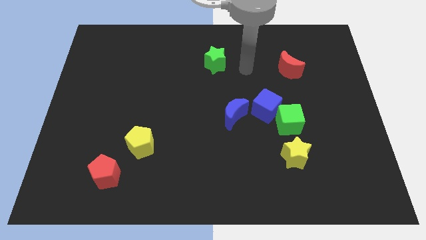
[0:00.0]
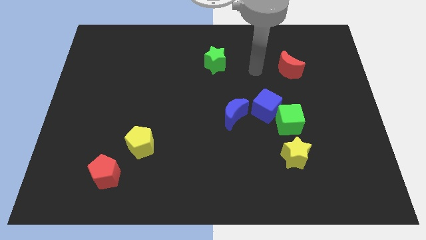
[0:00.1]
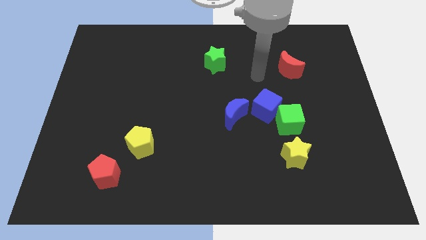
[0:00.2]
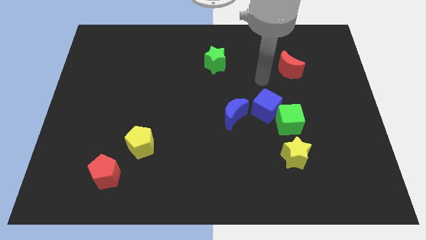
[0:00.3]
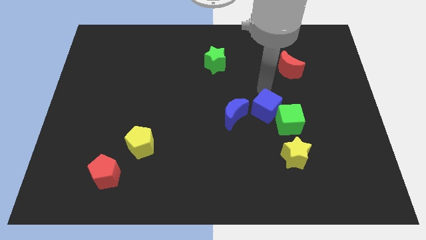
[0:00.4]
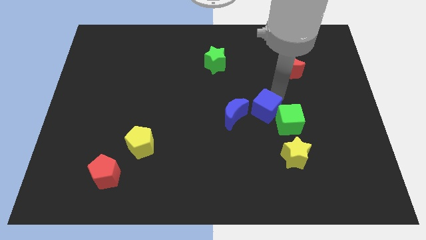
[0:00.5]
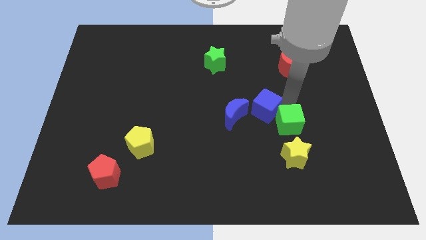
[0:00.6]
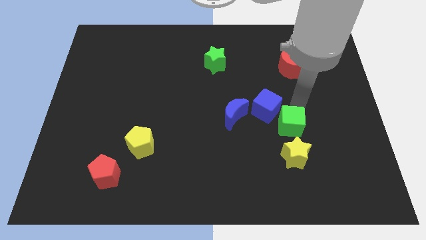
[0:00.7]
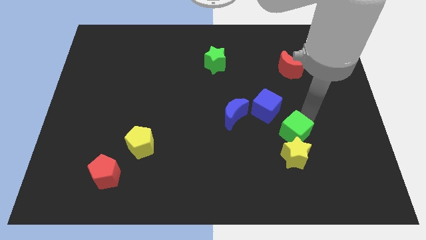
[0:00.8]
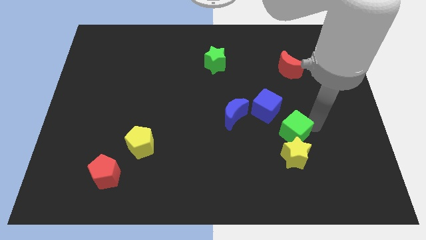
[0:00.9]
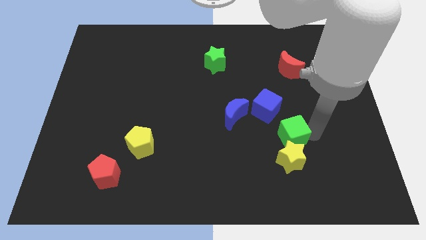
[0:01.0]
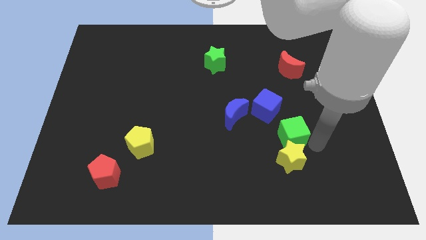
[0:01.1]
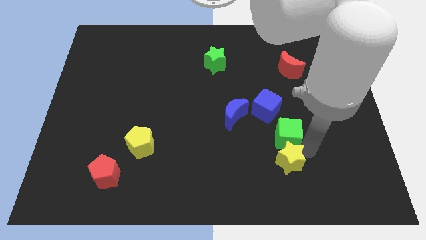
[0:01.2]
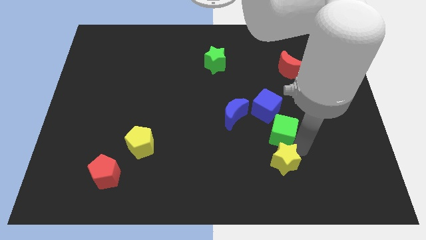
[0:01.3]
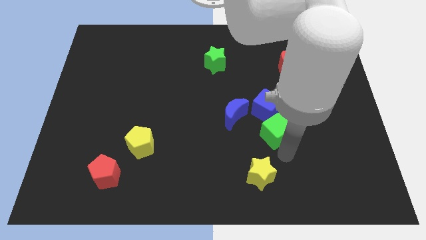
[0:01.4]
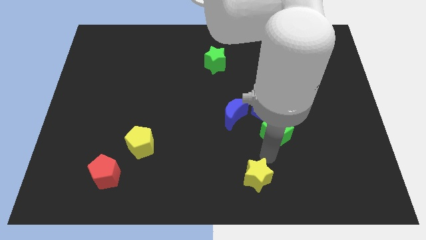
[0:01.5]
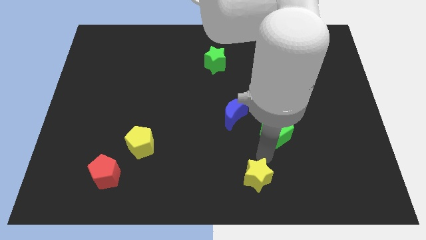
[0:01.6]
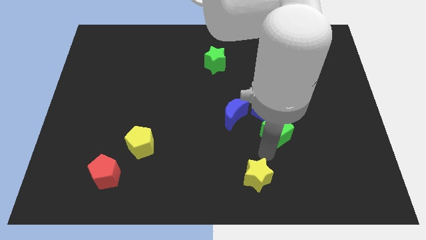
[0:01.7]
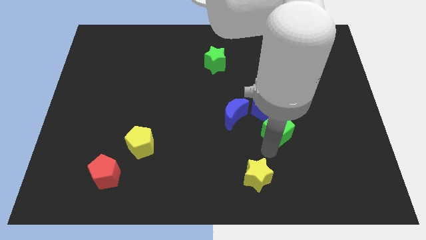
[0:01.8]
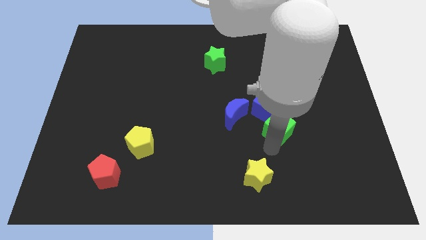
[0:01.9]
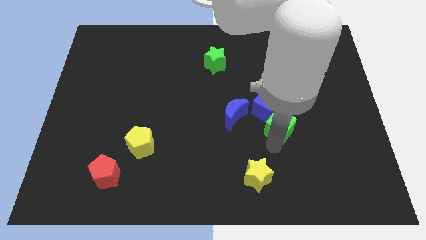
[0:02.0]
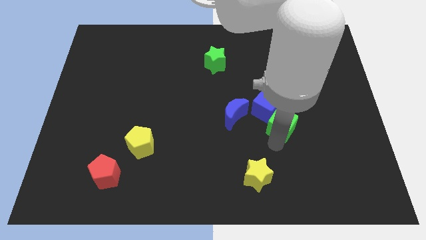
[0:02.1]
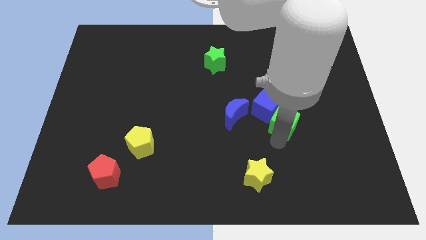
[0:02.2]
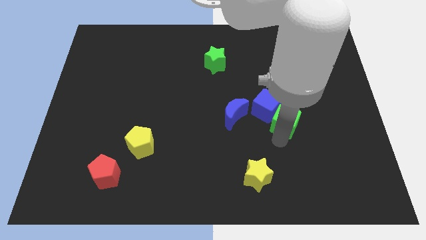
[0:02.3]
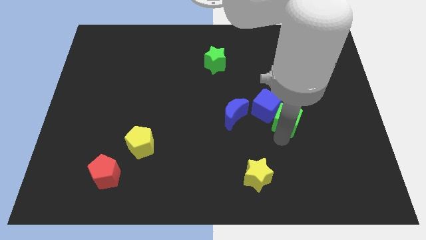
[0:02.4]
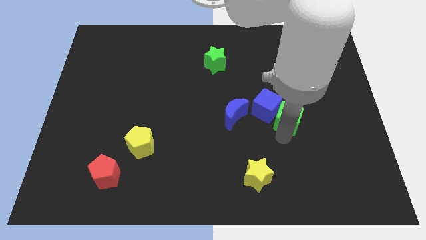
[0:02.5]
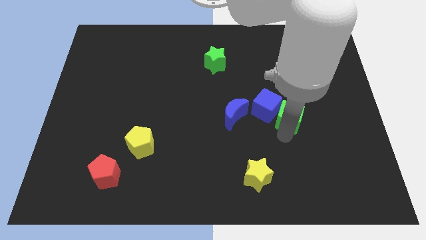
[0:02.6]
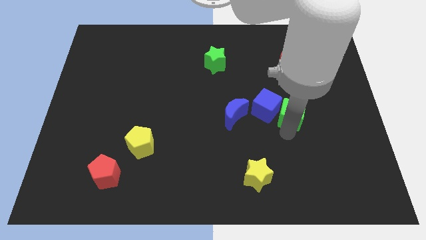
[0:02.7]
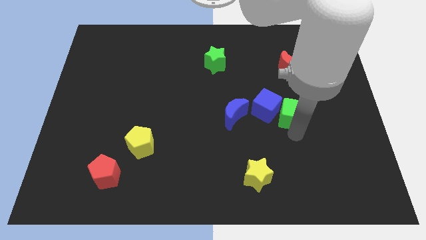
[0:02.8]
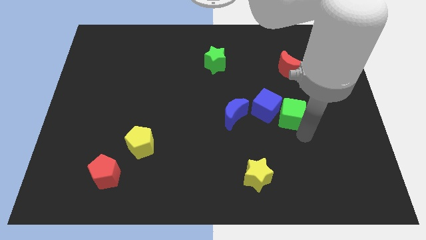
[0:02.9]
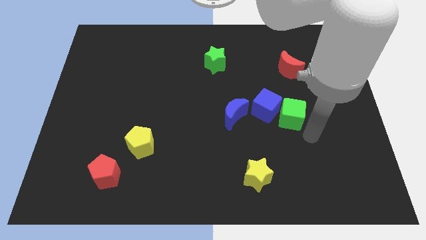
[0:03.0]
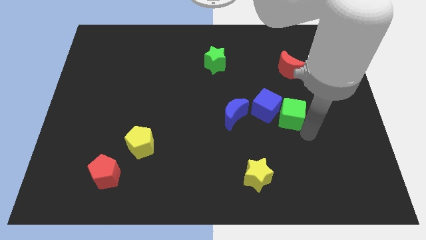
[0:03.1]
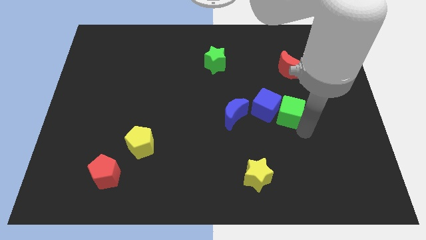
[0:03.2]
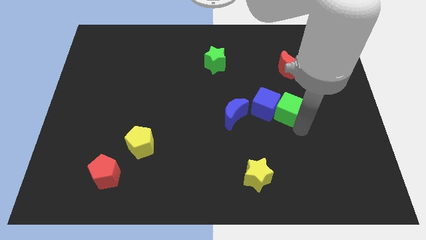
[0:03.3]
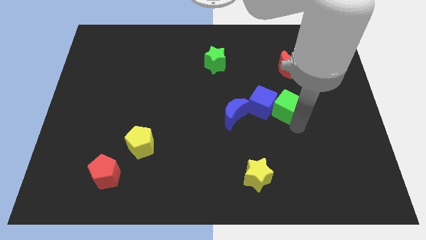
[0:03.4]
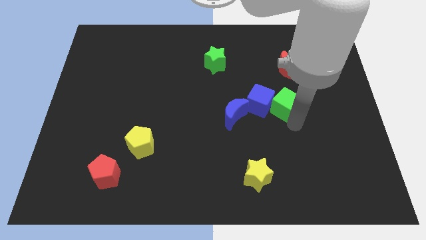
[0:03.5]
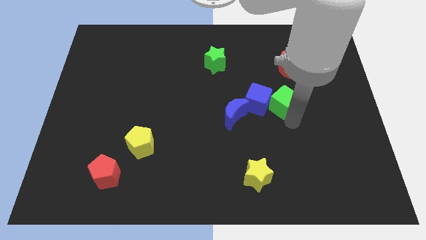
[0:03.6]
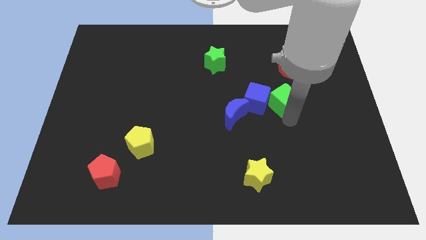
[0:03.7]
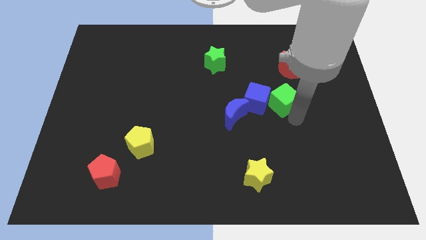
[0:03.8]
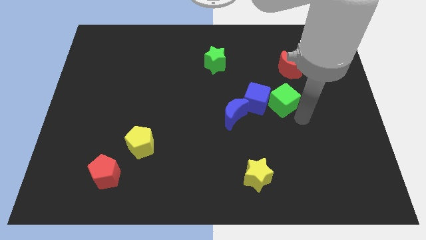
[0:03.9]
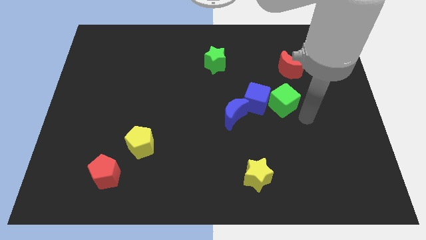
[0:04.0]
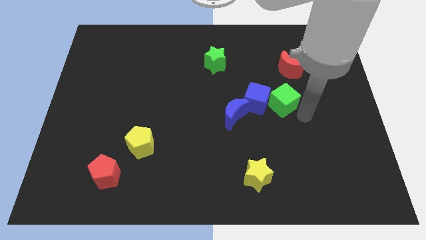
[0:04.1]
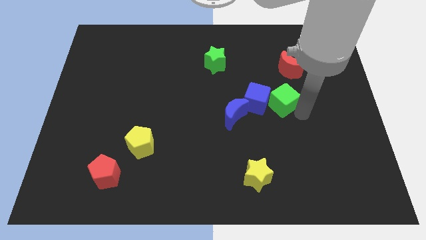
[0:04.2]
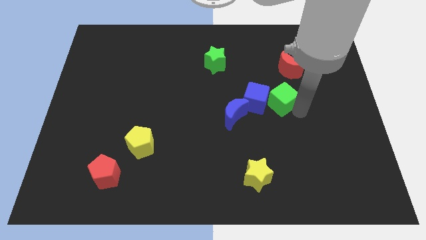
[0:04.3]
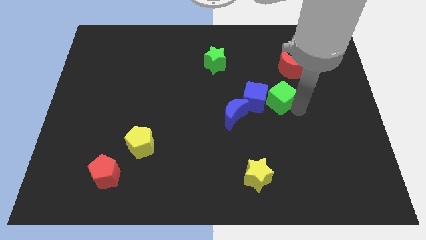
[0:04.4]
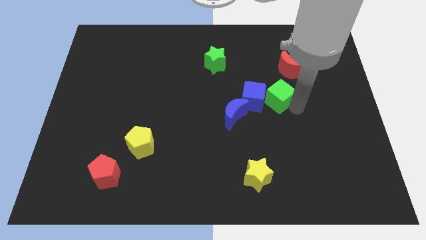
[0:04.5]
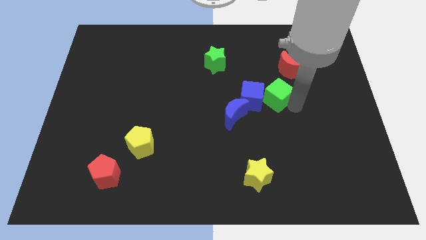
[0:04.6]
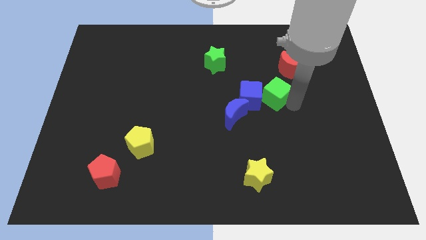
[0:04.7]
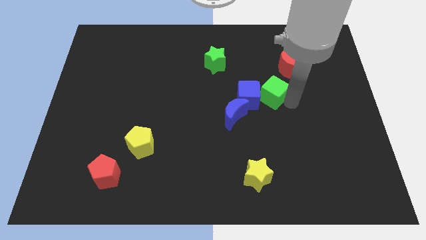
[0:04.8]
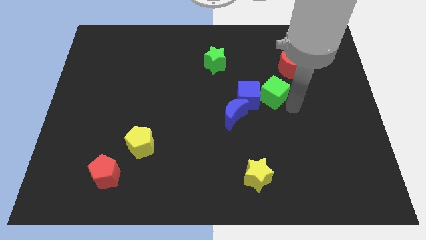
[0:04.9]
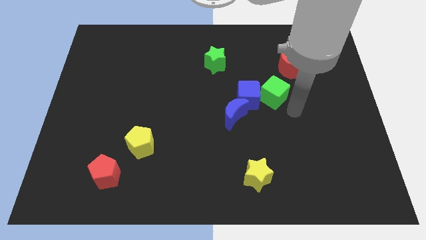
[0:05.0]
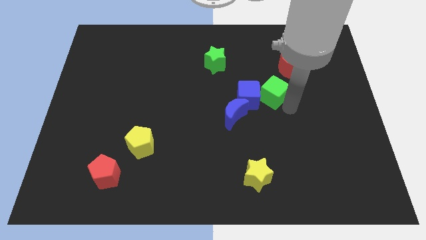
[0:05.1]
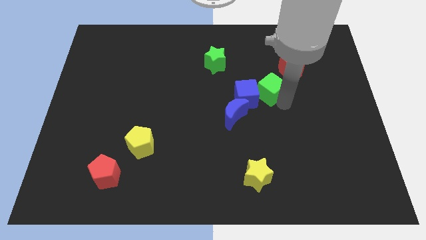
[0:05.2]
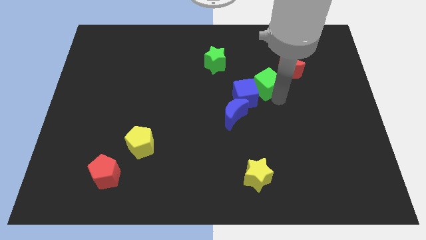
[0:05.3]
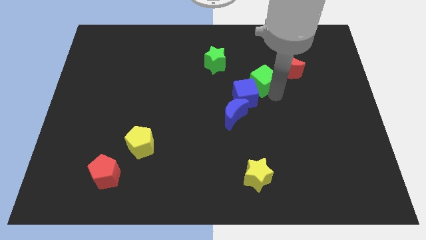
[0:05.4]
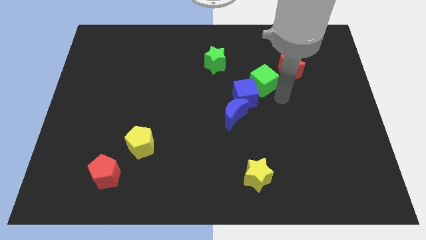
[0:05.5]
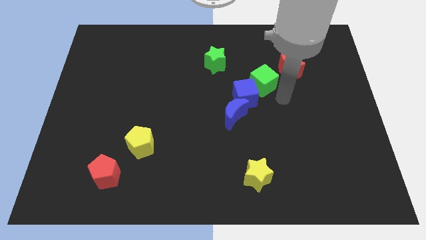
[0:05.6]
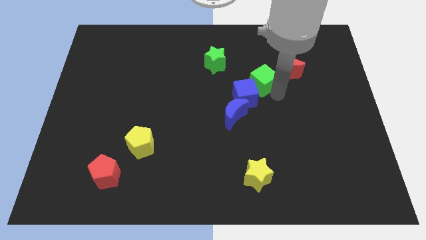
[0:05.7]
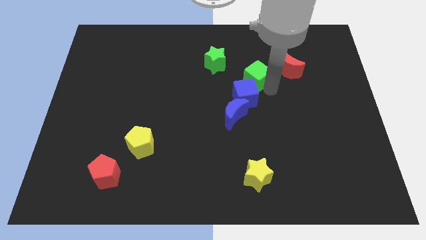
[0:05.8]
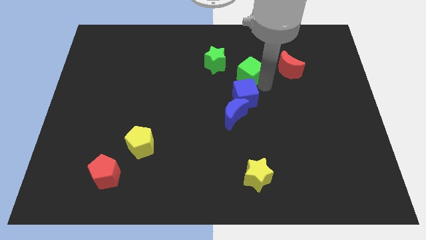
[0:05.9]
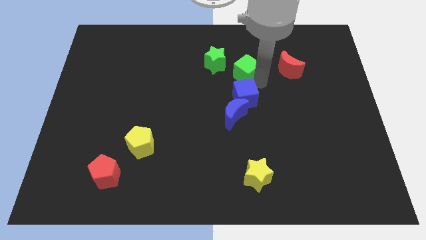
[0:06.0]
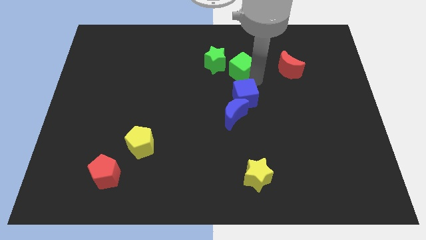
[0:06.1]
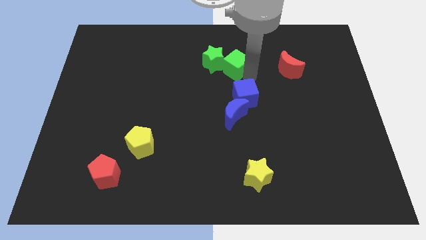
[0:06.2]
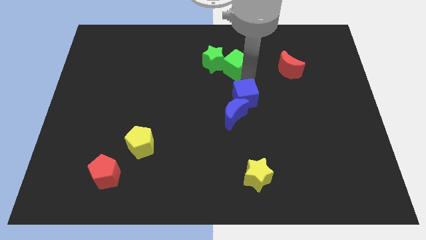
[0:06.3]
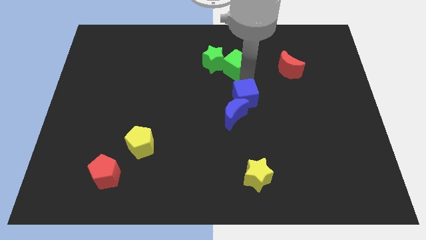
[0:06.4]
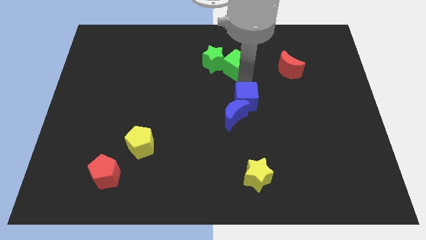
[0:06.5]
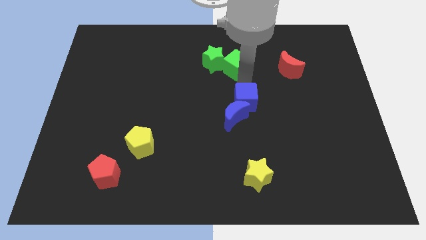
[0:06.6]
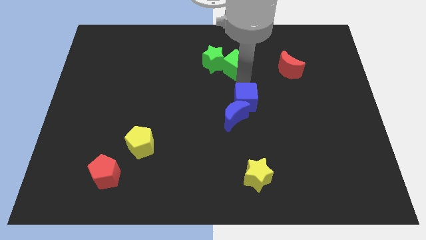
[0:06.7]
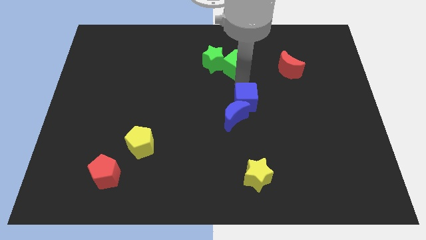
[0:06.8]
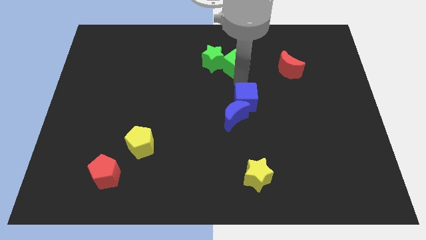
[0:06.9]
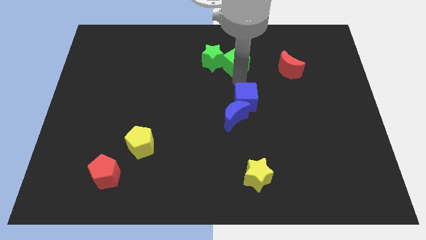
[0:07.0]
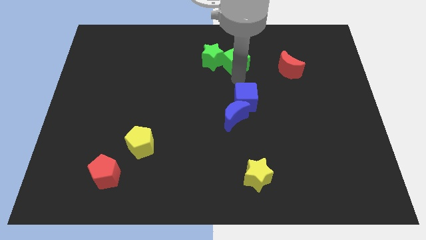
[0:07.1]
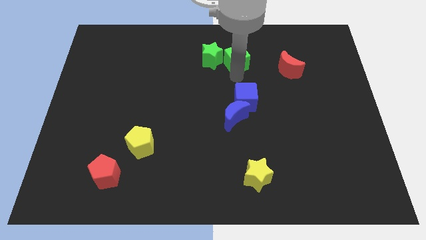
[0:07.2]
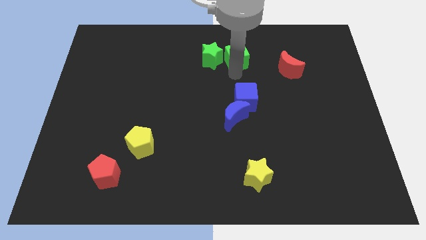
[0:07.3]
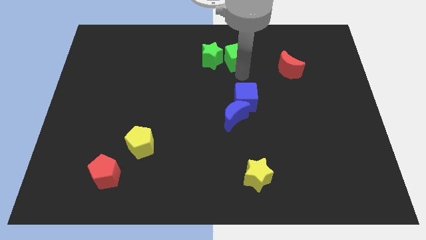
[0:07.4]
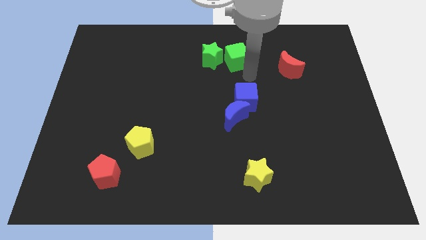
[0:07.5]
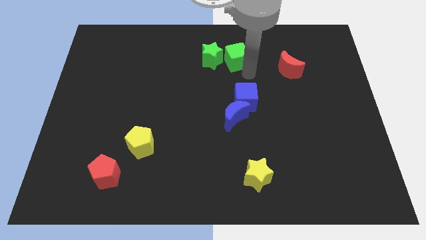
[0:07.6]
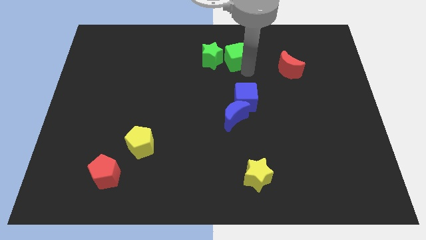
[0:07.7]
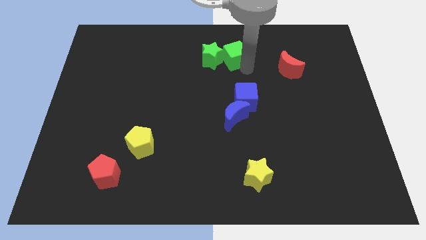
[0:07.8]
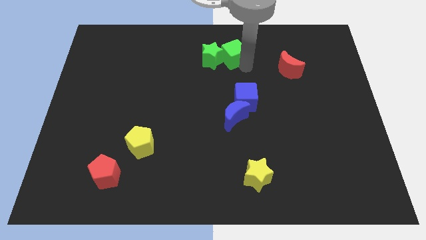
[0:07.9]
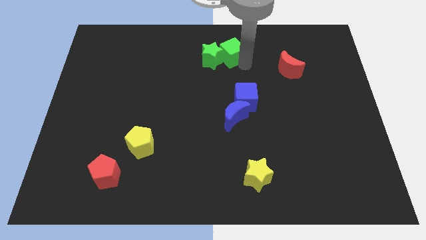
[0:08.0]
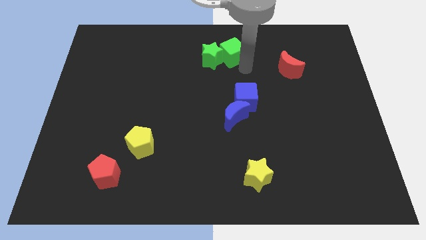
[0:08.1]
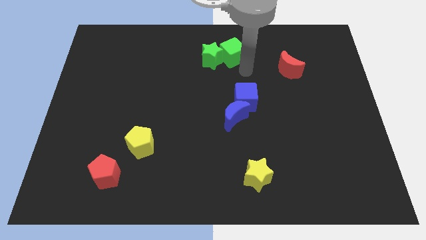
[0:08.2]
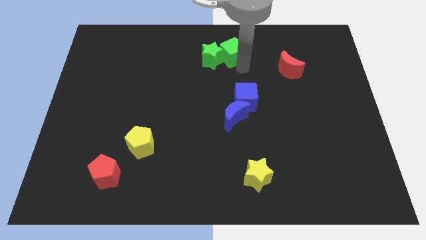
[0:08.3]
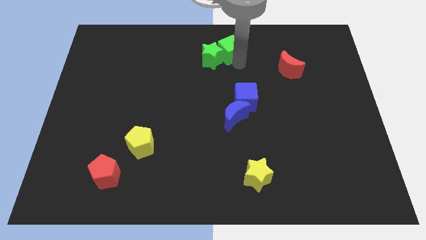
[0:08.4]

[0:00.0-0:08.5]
push the green cube to the top
